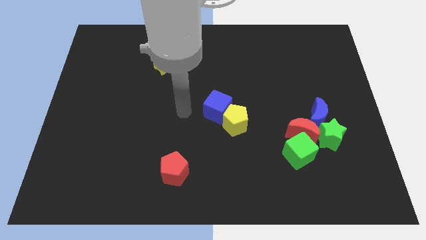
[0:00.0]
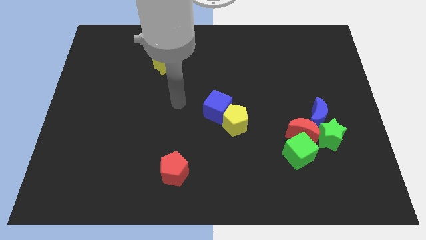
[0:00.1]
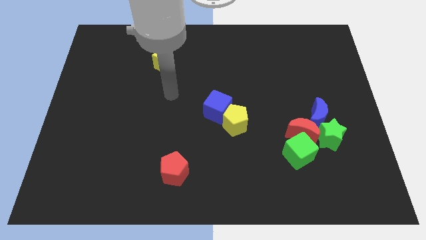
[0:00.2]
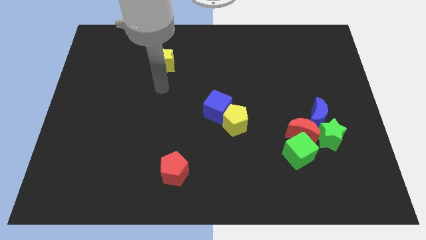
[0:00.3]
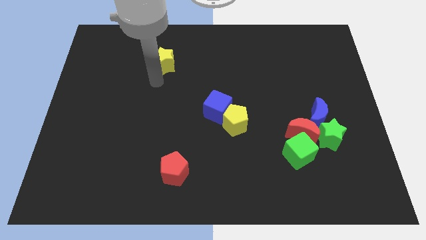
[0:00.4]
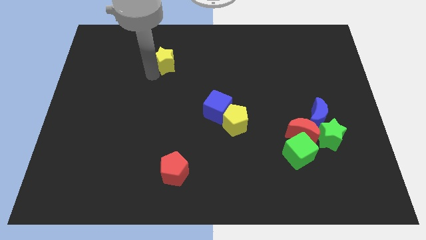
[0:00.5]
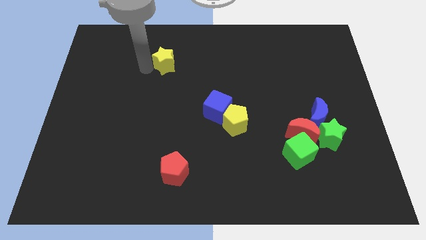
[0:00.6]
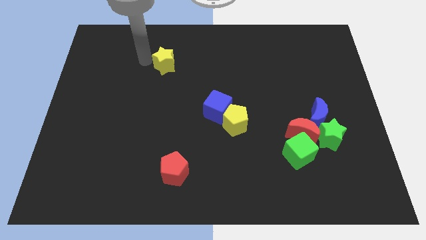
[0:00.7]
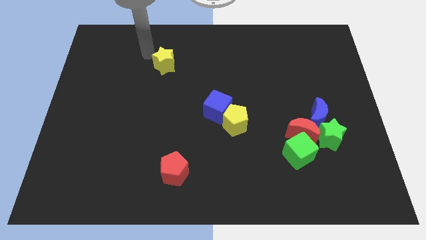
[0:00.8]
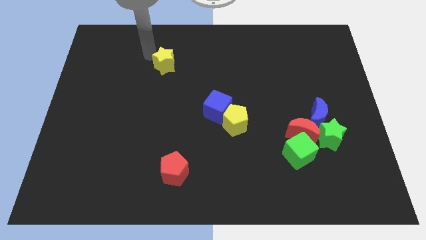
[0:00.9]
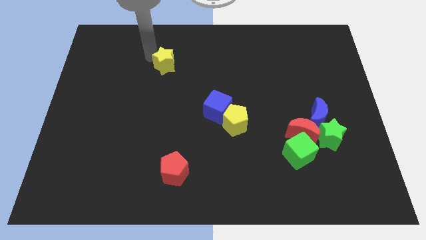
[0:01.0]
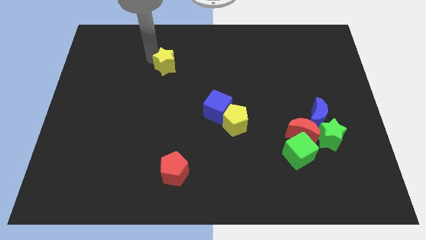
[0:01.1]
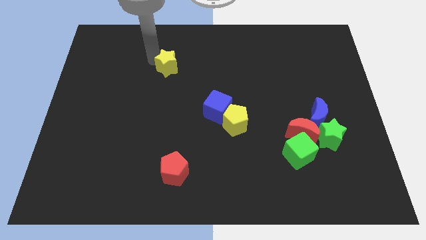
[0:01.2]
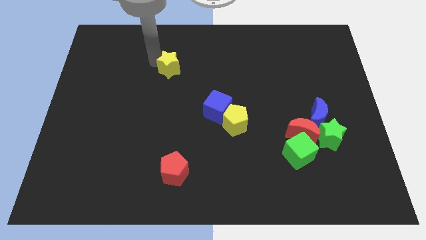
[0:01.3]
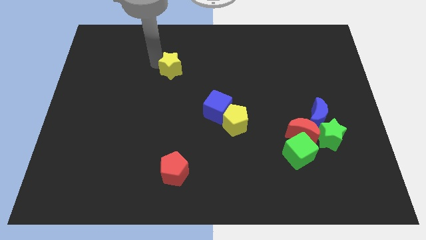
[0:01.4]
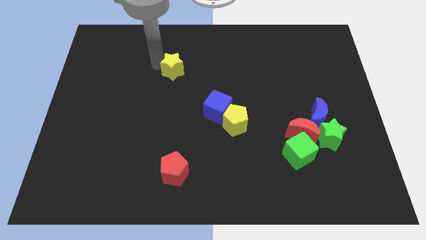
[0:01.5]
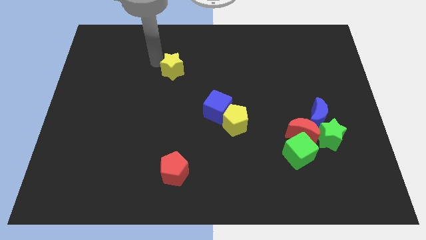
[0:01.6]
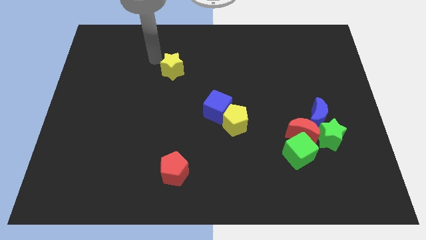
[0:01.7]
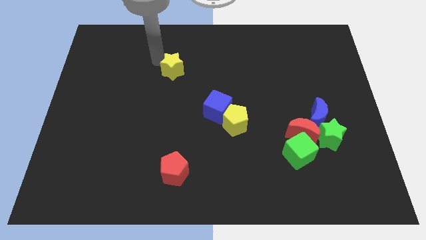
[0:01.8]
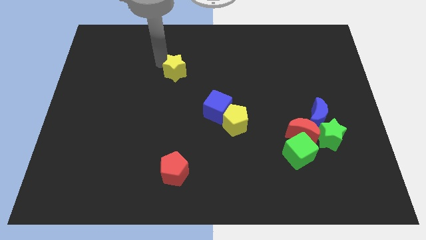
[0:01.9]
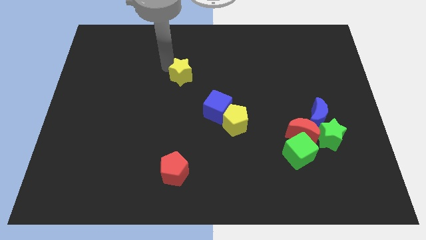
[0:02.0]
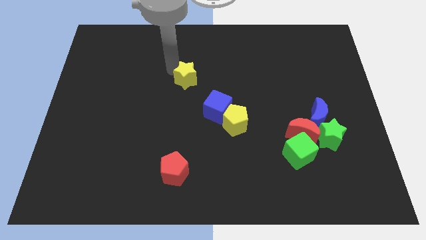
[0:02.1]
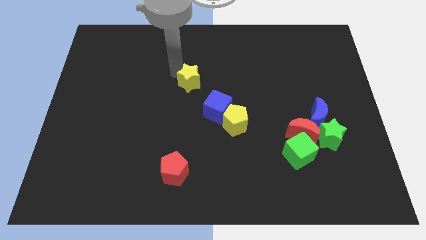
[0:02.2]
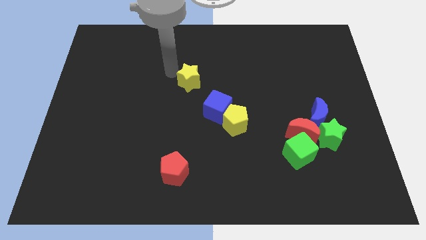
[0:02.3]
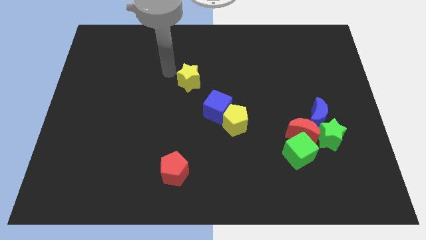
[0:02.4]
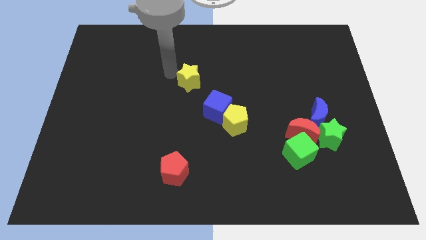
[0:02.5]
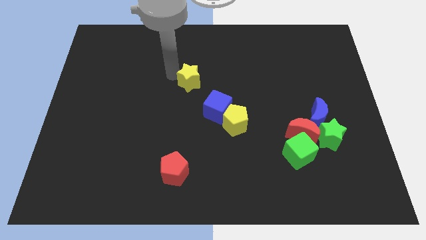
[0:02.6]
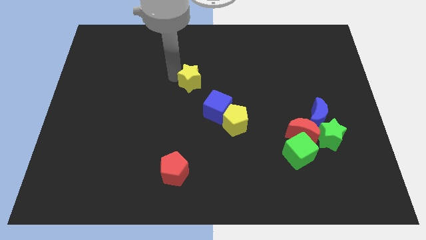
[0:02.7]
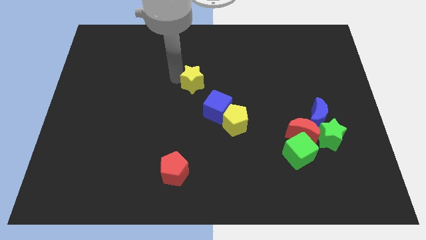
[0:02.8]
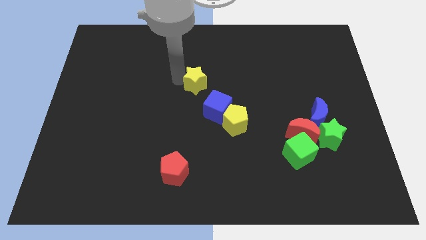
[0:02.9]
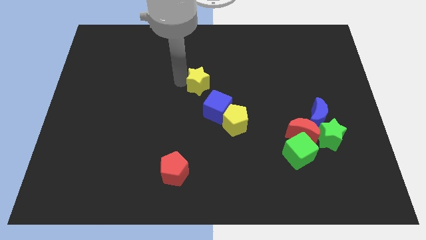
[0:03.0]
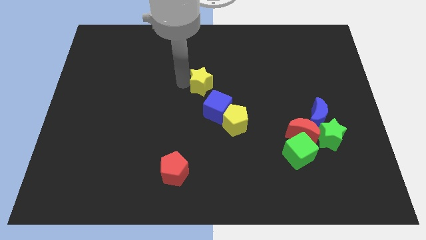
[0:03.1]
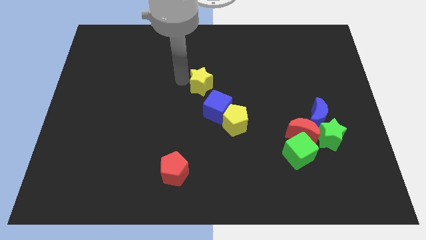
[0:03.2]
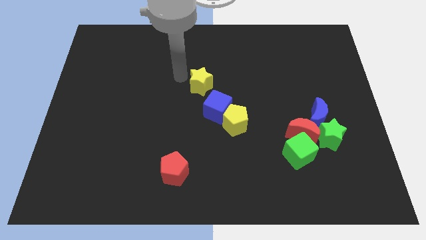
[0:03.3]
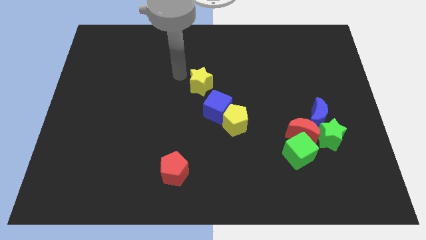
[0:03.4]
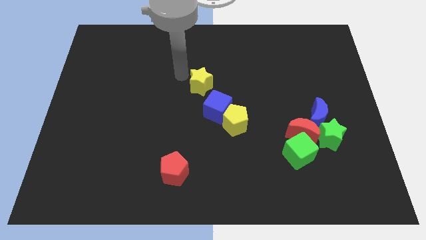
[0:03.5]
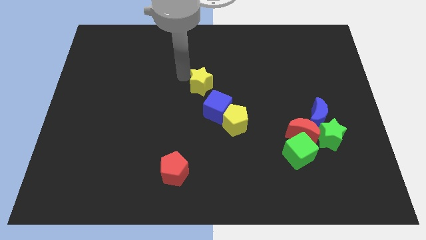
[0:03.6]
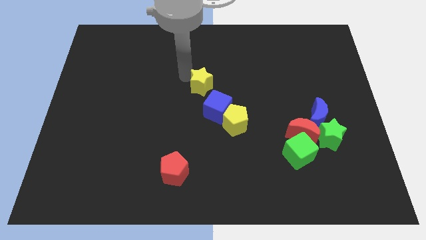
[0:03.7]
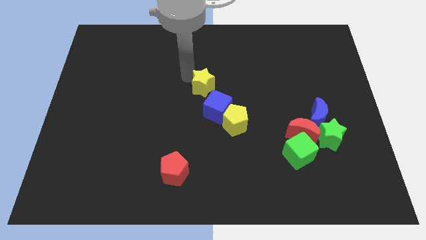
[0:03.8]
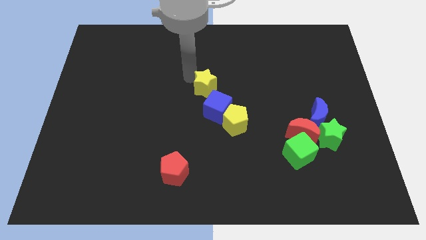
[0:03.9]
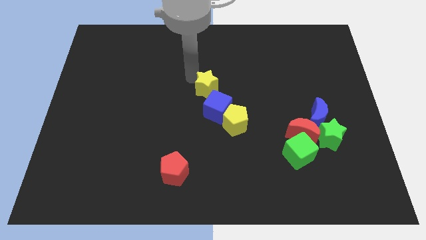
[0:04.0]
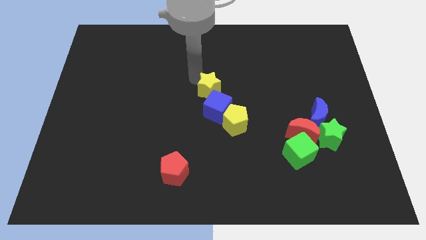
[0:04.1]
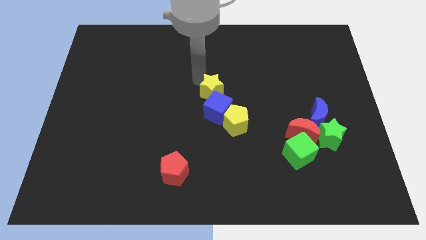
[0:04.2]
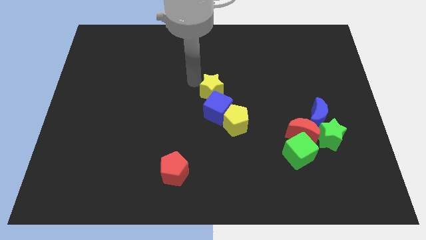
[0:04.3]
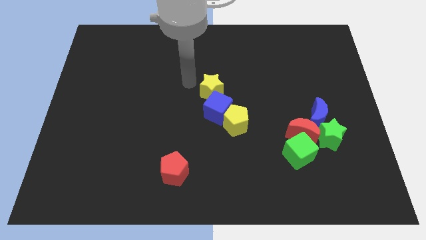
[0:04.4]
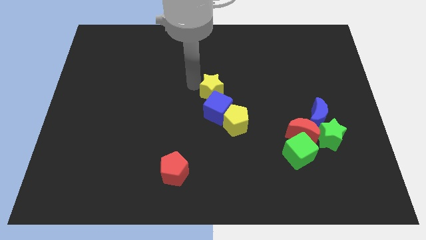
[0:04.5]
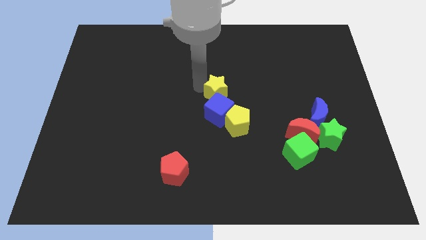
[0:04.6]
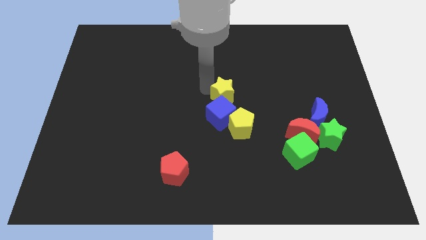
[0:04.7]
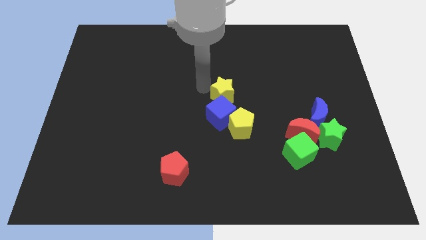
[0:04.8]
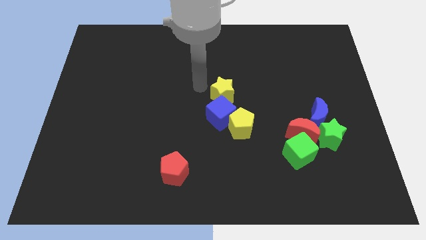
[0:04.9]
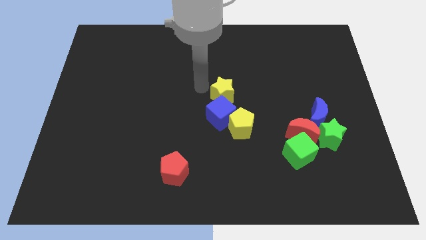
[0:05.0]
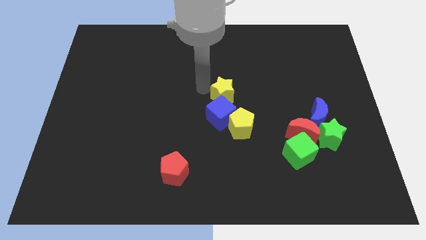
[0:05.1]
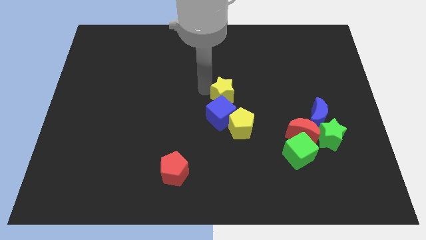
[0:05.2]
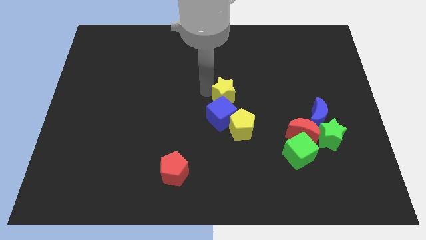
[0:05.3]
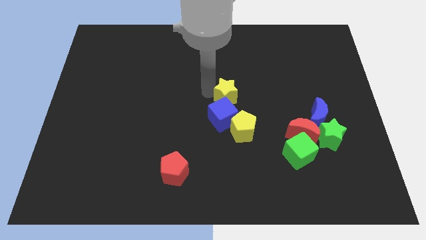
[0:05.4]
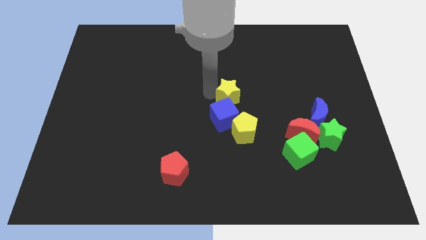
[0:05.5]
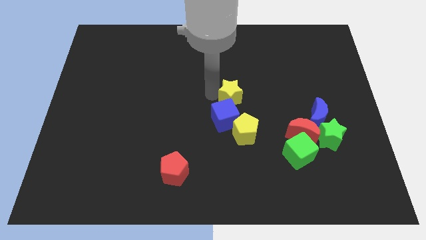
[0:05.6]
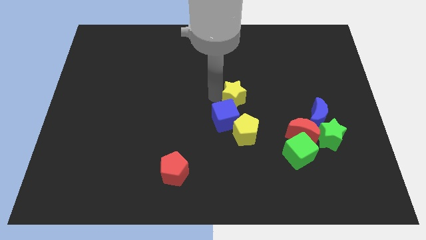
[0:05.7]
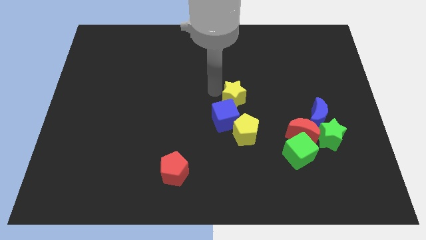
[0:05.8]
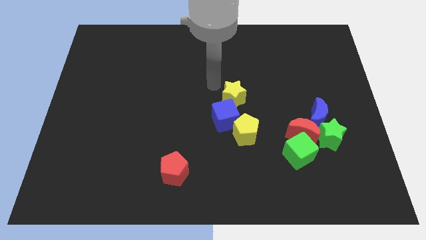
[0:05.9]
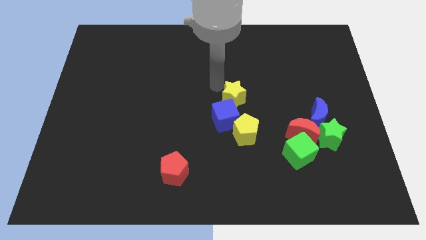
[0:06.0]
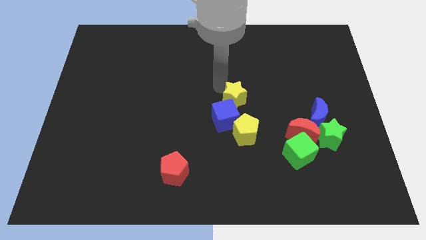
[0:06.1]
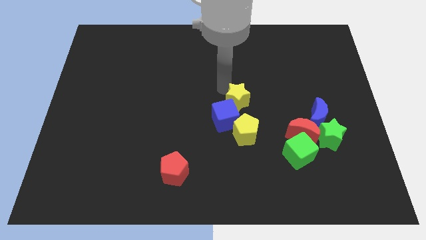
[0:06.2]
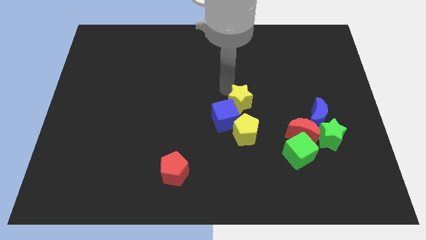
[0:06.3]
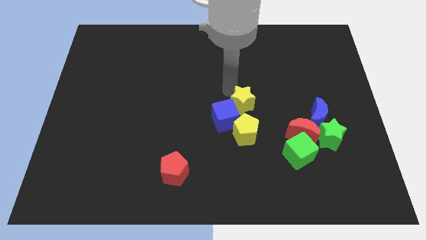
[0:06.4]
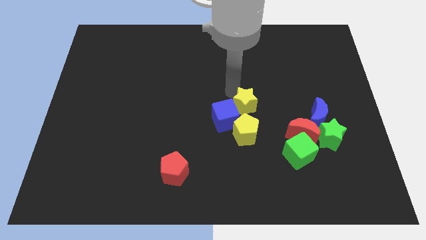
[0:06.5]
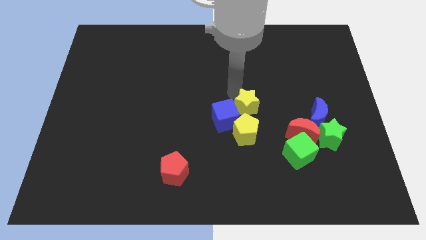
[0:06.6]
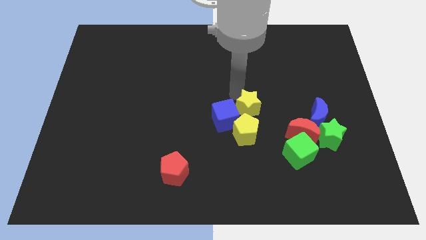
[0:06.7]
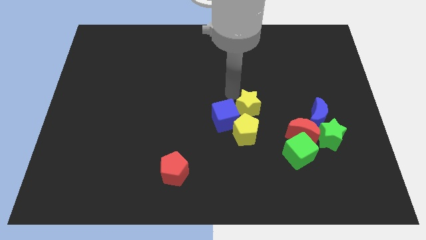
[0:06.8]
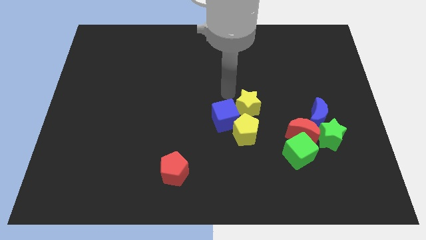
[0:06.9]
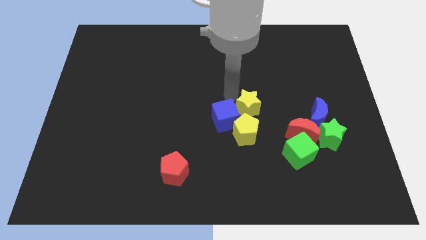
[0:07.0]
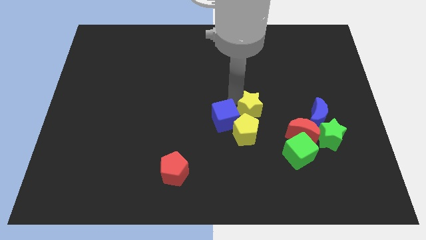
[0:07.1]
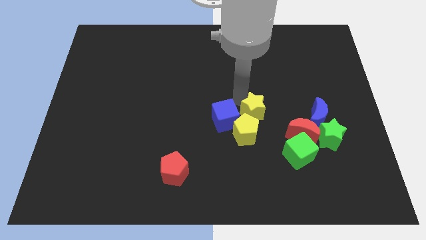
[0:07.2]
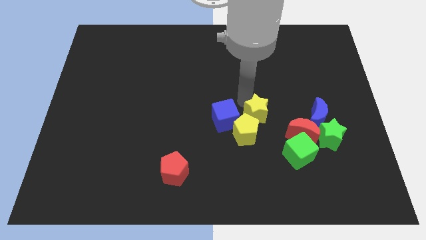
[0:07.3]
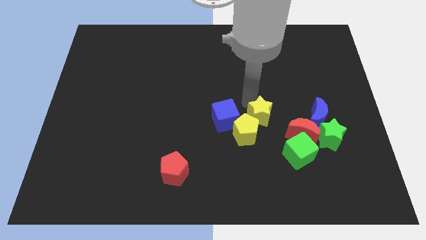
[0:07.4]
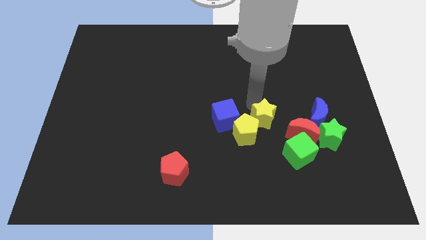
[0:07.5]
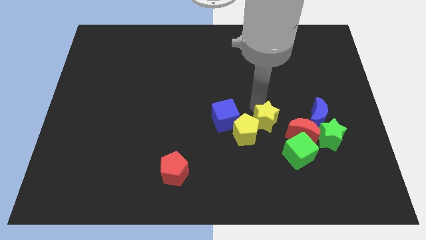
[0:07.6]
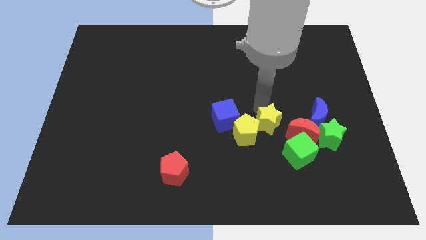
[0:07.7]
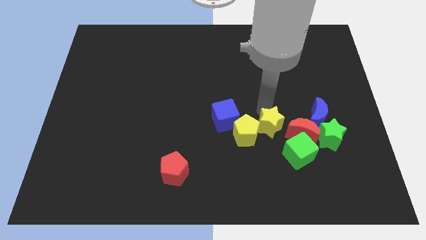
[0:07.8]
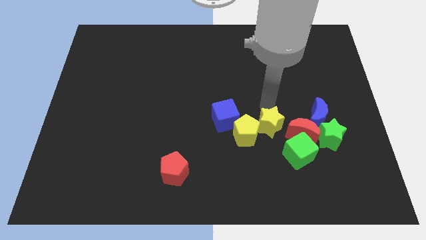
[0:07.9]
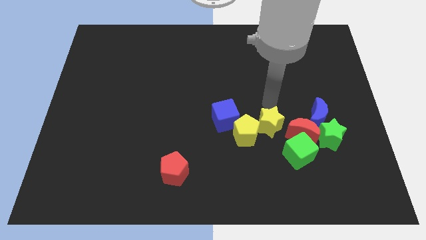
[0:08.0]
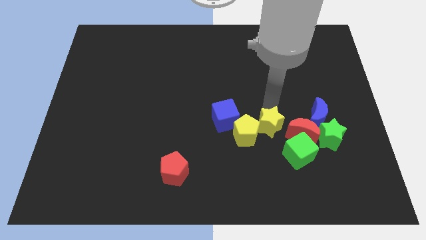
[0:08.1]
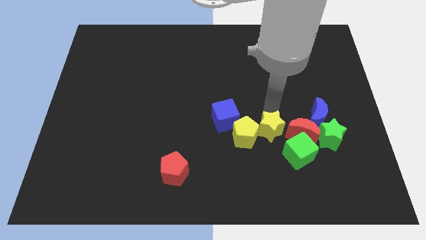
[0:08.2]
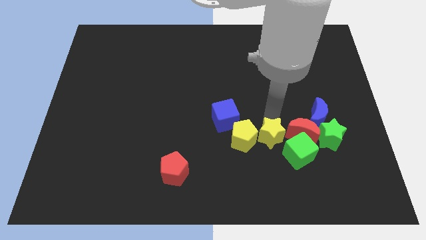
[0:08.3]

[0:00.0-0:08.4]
put the yellow star to the bottom right of the yellow pentagon

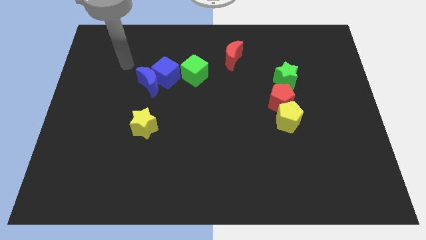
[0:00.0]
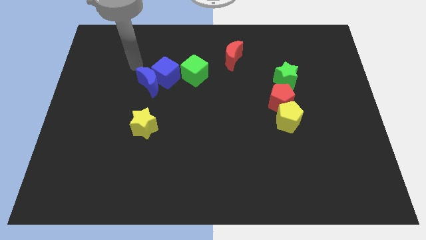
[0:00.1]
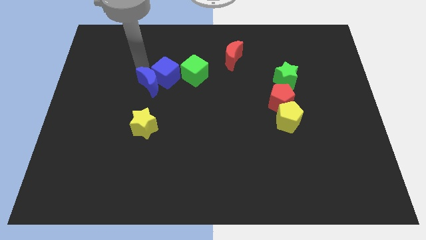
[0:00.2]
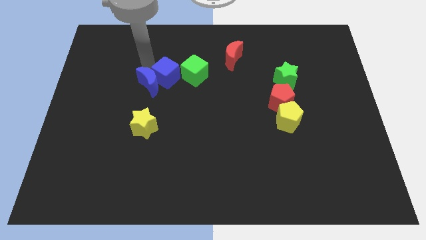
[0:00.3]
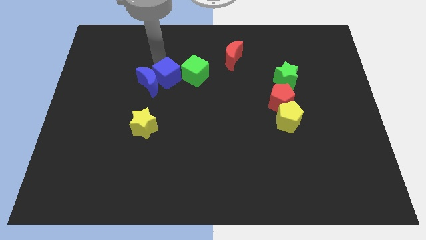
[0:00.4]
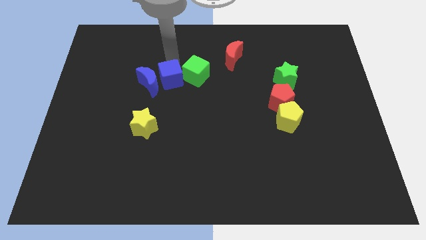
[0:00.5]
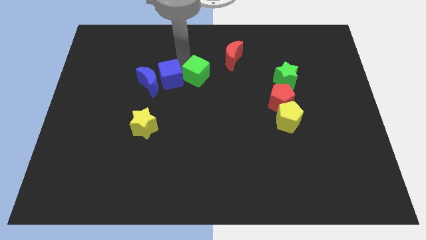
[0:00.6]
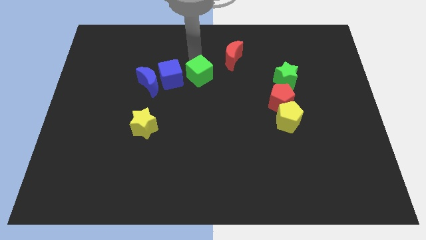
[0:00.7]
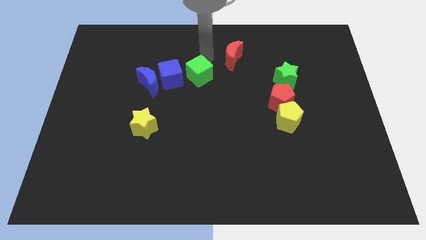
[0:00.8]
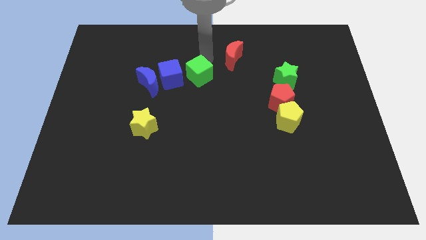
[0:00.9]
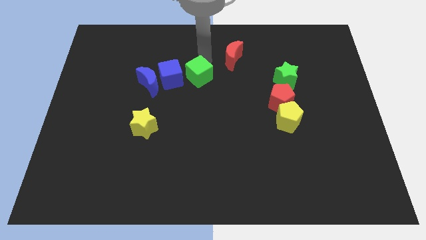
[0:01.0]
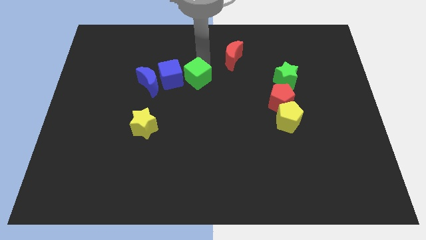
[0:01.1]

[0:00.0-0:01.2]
slide the green cube to the bottom right side of the blue cube
